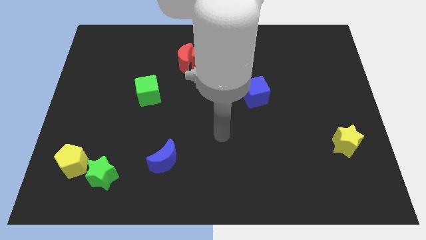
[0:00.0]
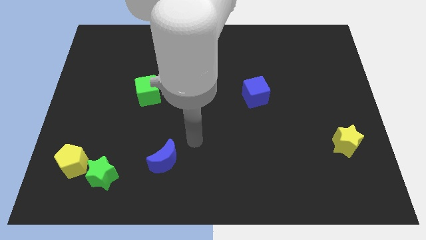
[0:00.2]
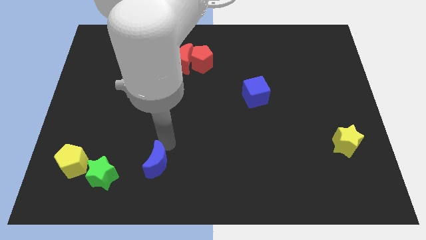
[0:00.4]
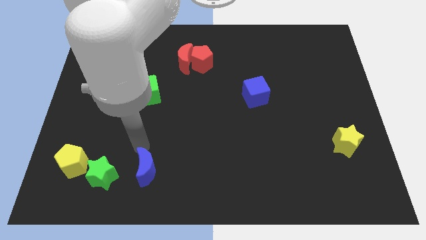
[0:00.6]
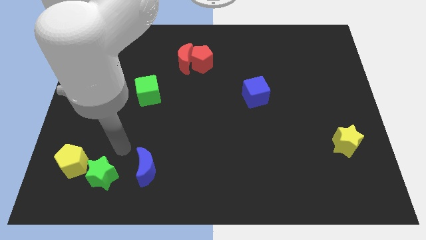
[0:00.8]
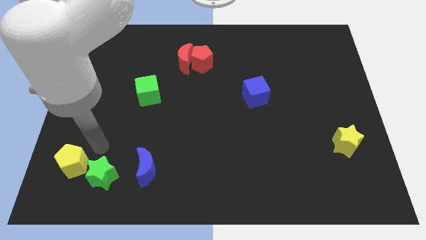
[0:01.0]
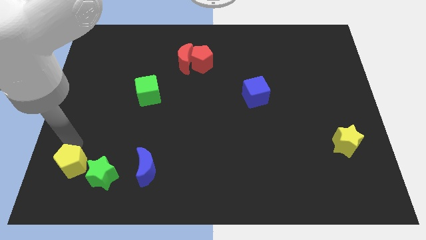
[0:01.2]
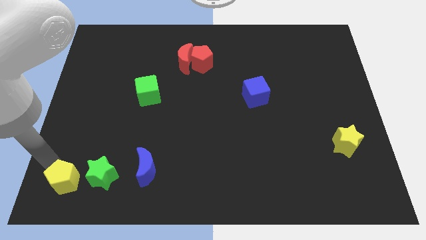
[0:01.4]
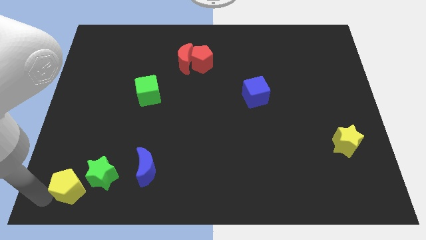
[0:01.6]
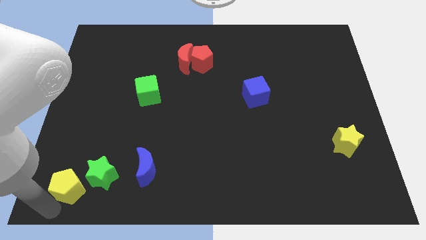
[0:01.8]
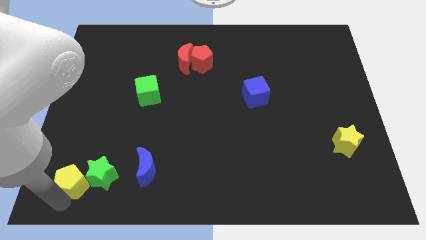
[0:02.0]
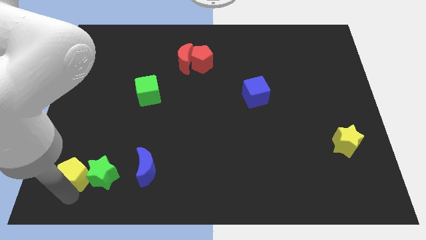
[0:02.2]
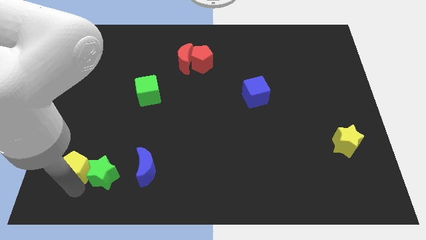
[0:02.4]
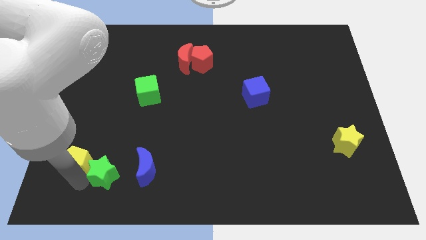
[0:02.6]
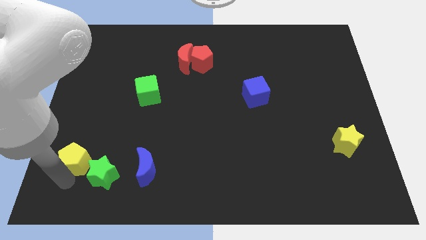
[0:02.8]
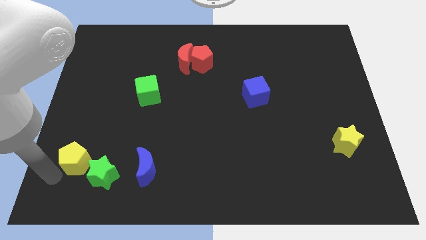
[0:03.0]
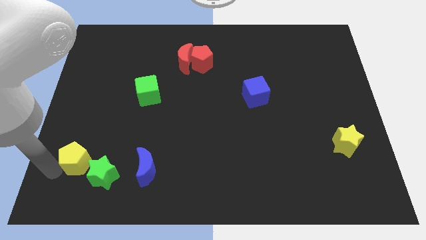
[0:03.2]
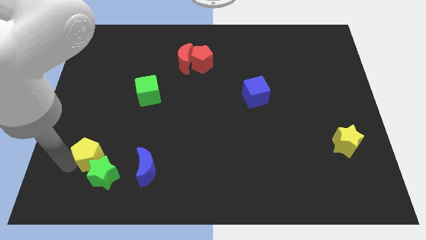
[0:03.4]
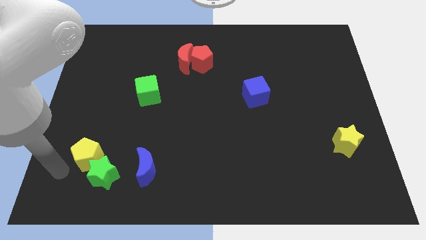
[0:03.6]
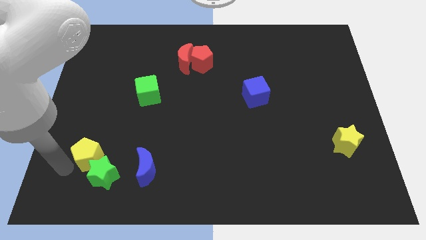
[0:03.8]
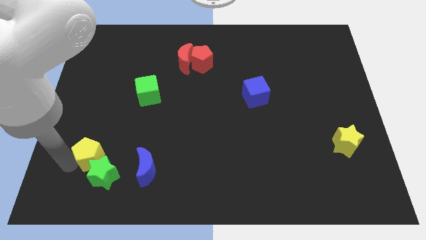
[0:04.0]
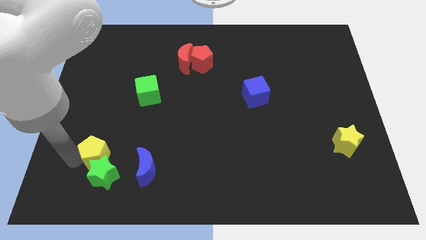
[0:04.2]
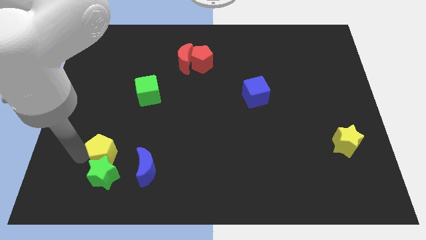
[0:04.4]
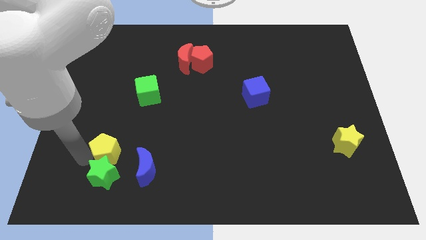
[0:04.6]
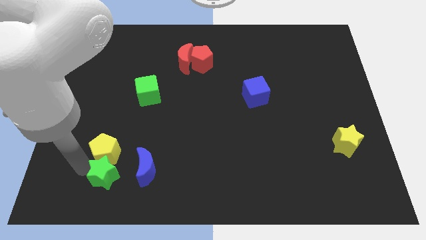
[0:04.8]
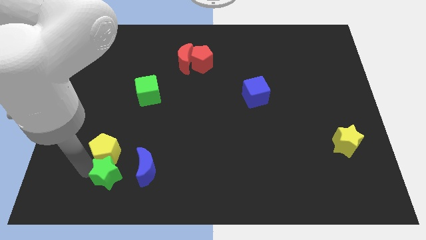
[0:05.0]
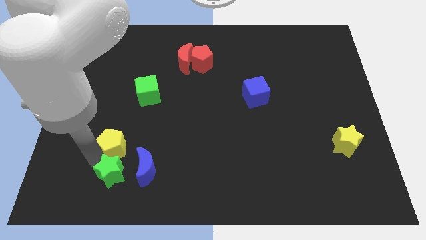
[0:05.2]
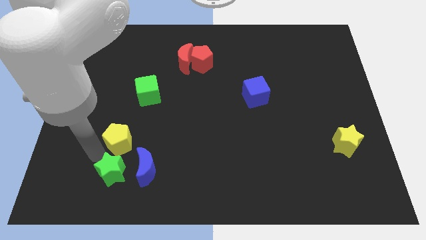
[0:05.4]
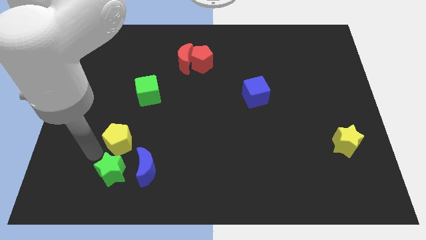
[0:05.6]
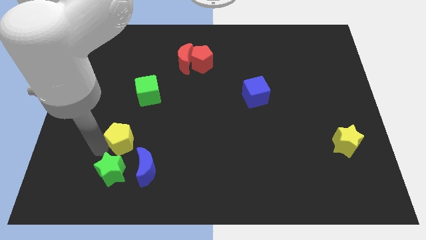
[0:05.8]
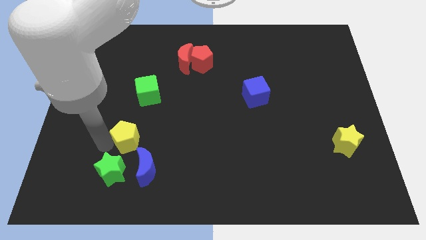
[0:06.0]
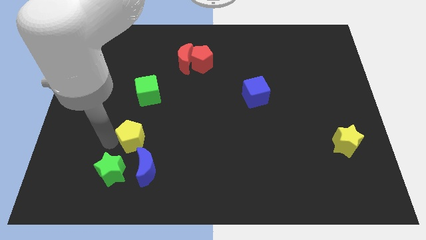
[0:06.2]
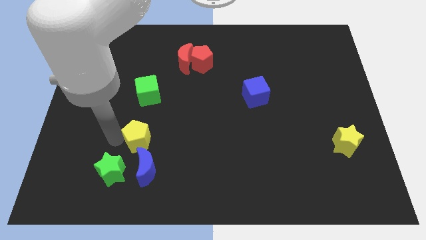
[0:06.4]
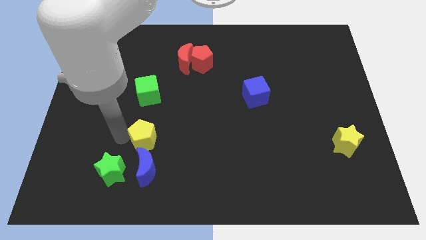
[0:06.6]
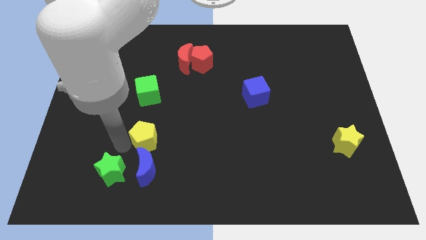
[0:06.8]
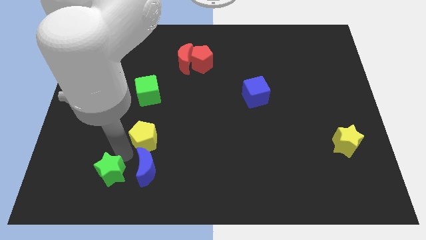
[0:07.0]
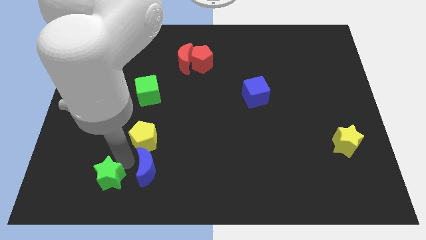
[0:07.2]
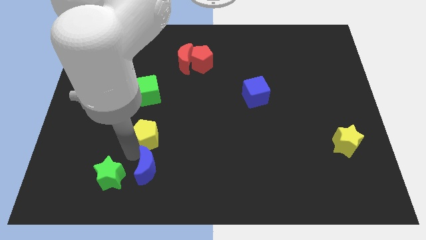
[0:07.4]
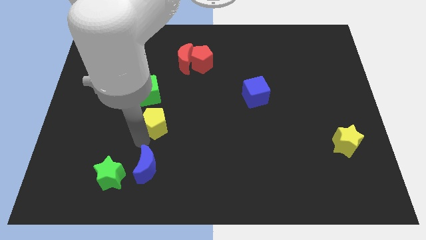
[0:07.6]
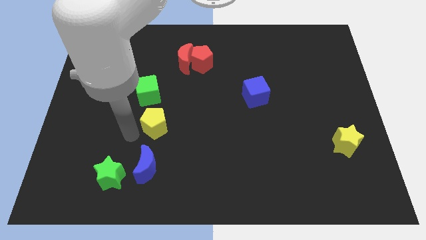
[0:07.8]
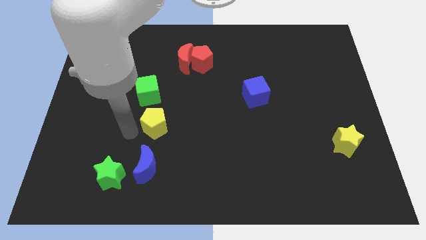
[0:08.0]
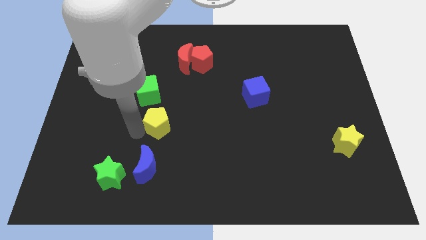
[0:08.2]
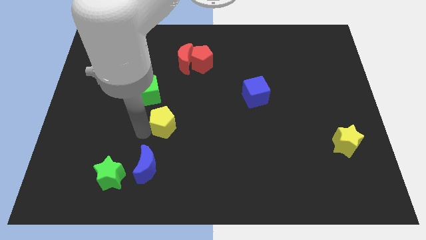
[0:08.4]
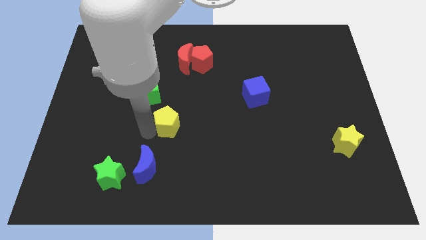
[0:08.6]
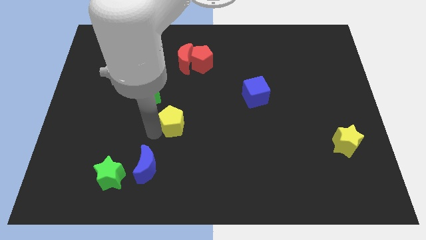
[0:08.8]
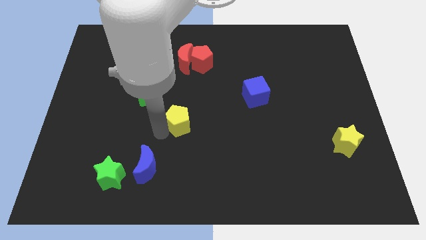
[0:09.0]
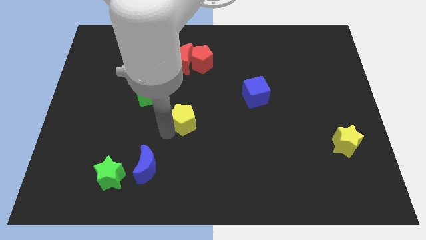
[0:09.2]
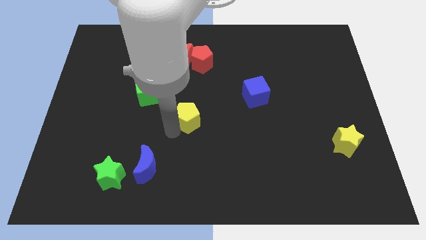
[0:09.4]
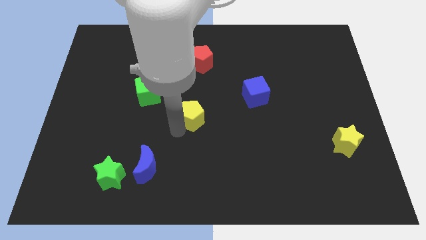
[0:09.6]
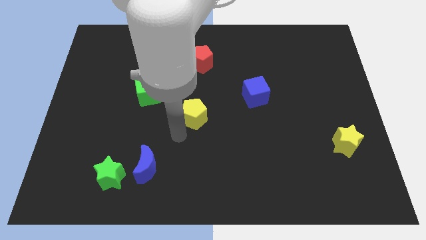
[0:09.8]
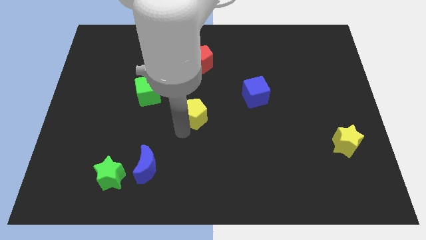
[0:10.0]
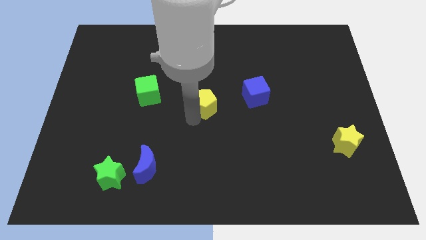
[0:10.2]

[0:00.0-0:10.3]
push the yellow pentagon to the left of the blue cube

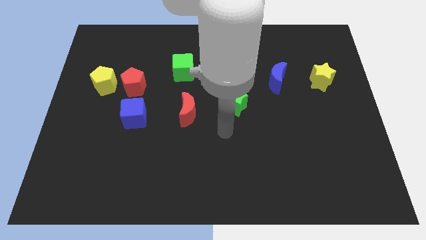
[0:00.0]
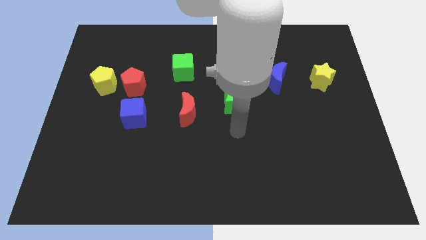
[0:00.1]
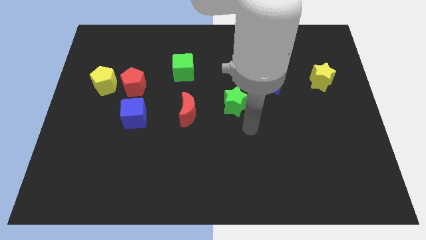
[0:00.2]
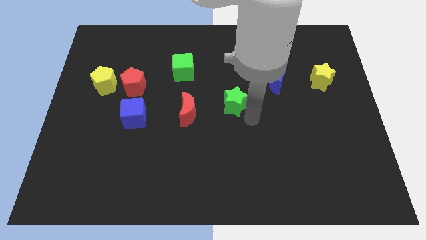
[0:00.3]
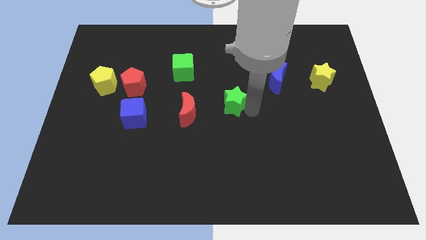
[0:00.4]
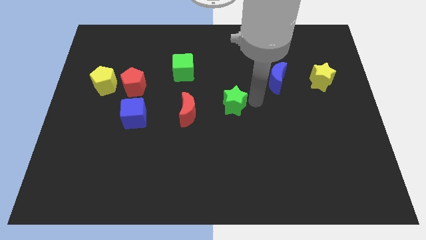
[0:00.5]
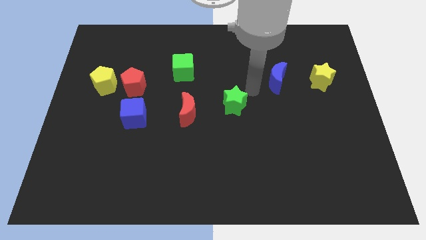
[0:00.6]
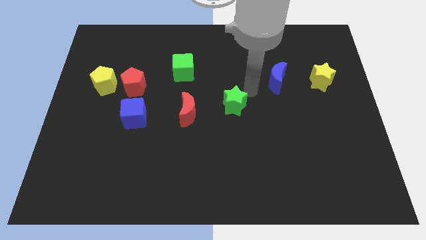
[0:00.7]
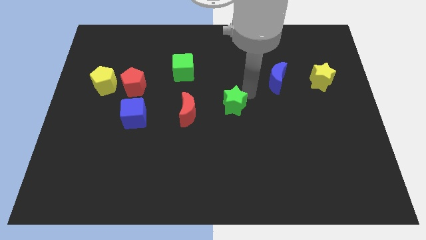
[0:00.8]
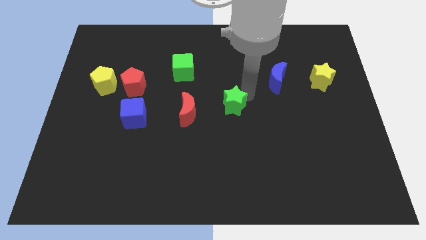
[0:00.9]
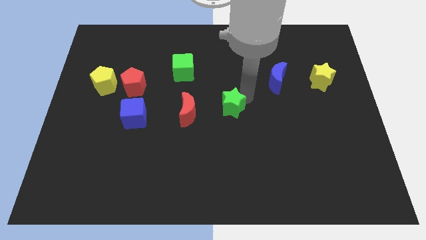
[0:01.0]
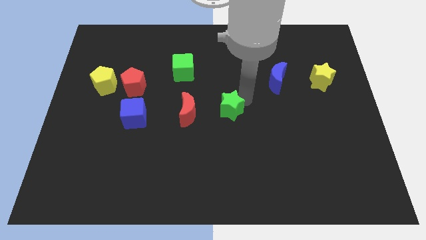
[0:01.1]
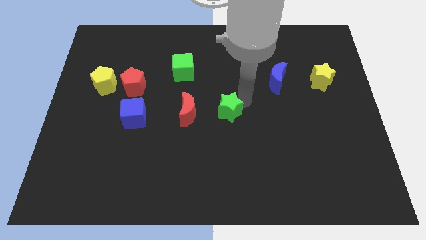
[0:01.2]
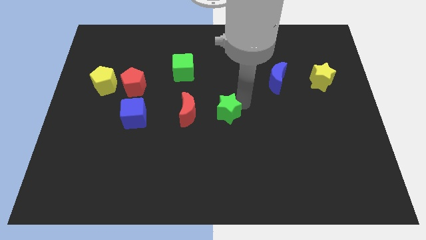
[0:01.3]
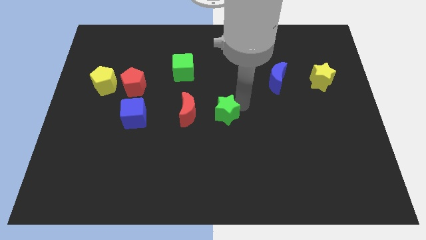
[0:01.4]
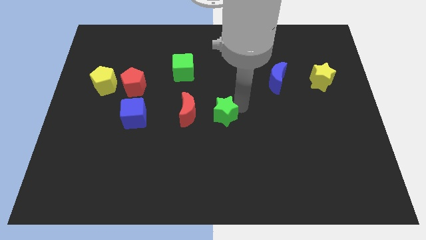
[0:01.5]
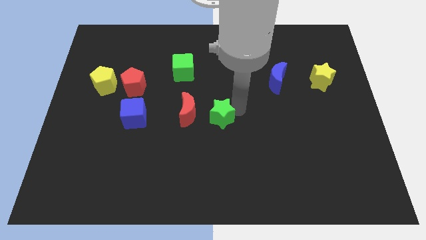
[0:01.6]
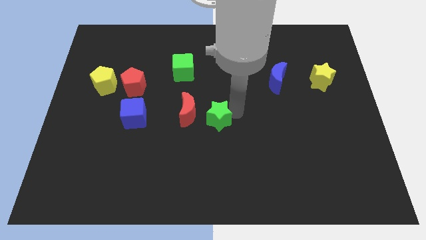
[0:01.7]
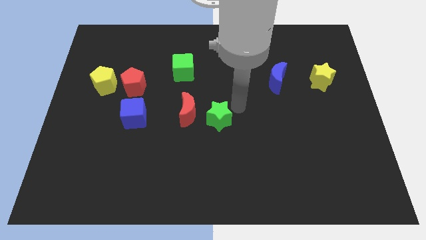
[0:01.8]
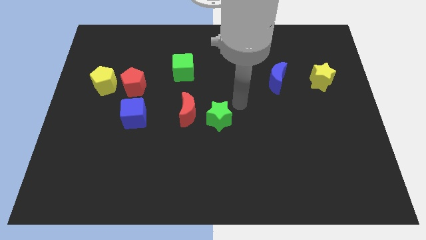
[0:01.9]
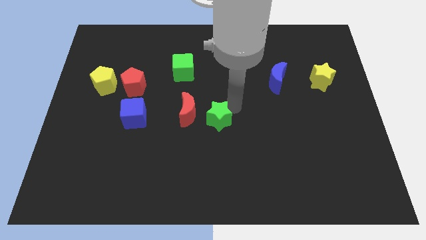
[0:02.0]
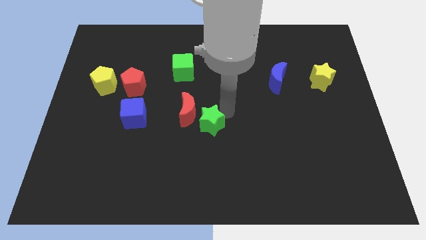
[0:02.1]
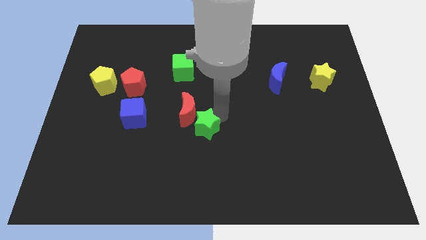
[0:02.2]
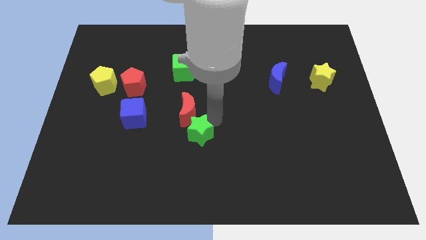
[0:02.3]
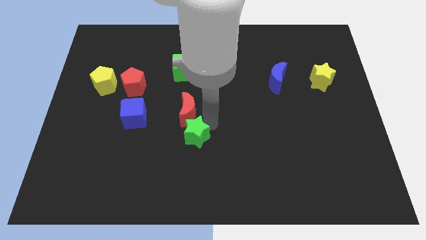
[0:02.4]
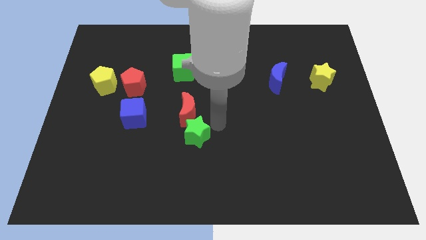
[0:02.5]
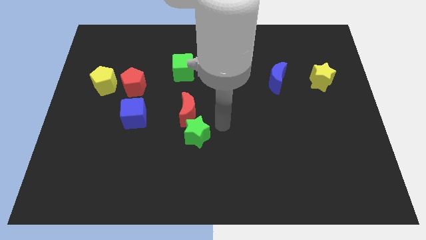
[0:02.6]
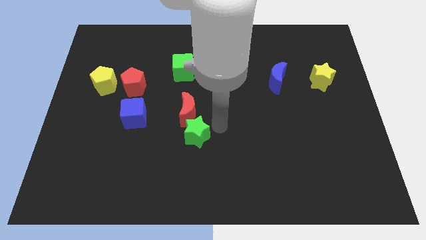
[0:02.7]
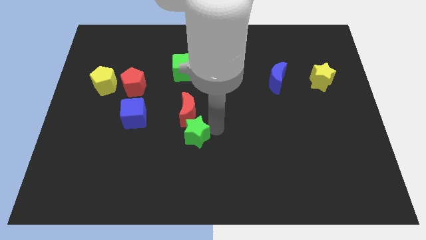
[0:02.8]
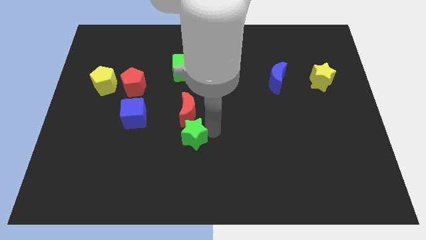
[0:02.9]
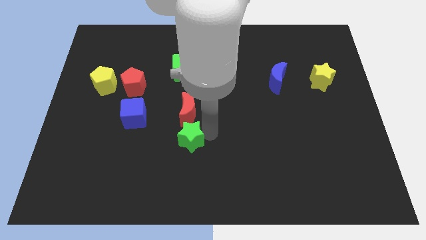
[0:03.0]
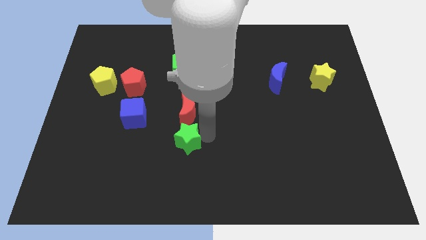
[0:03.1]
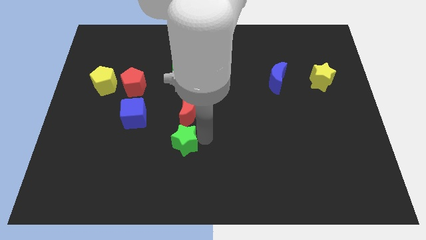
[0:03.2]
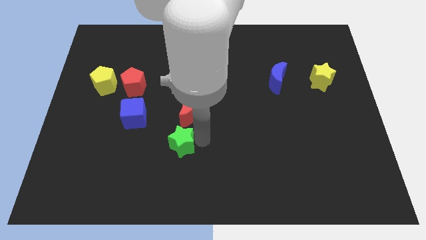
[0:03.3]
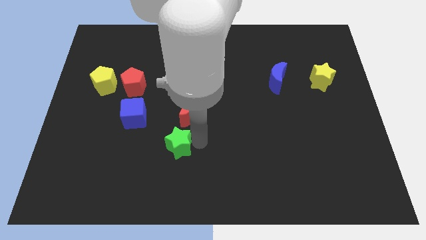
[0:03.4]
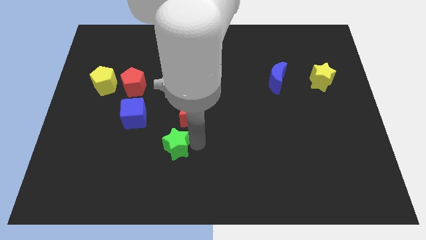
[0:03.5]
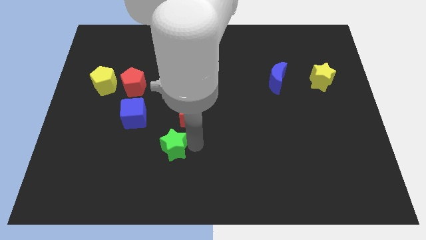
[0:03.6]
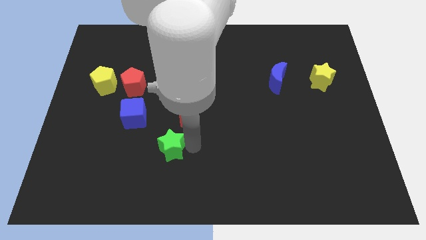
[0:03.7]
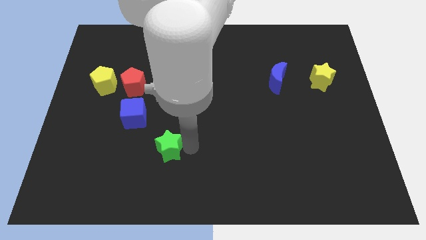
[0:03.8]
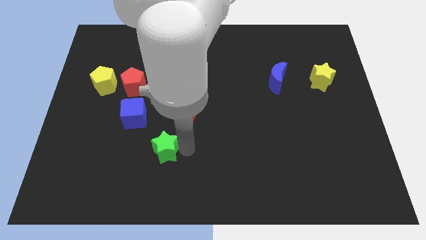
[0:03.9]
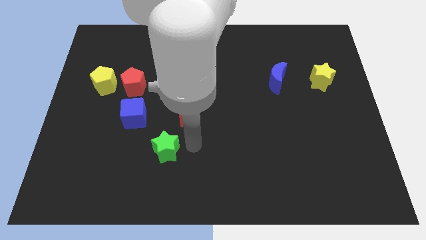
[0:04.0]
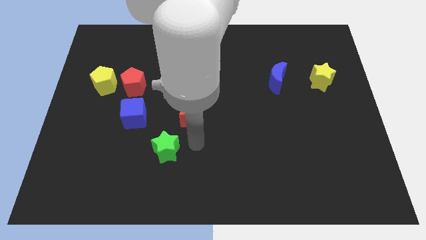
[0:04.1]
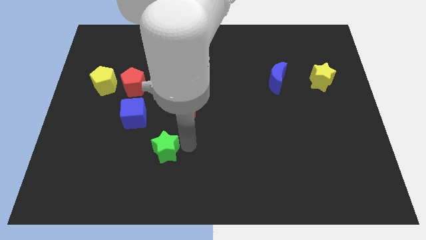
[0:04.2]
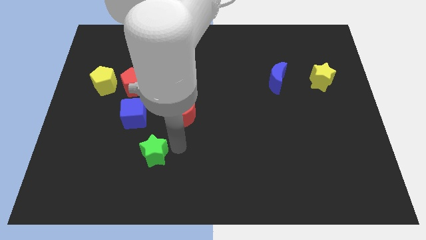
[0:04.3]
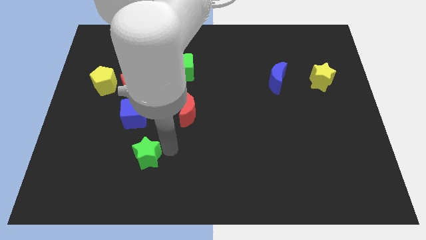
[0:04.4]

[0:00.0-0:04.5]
move the green star to the bottom side of the blue cube
